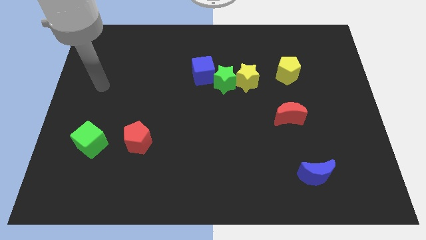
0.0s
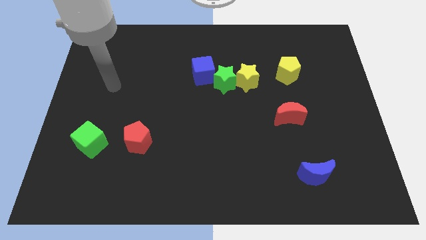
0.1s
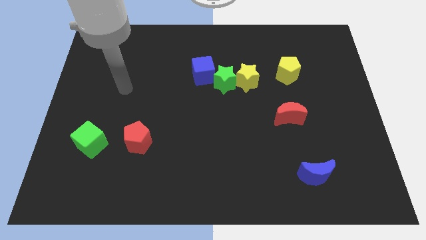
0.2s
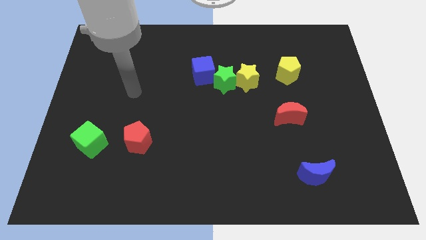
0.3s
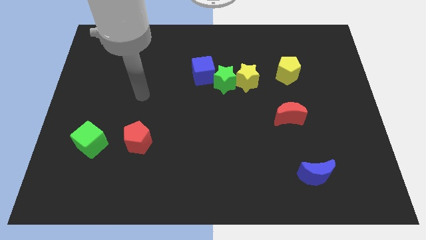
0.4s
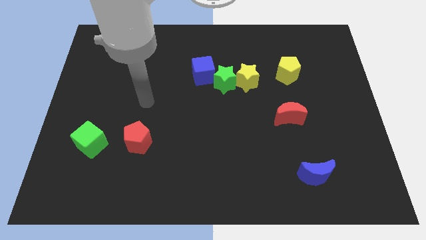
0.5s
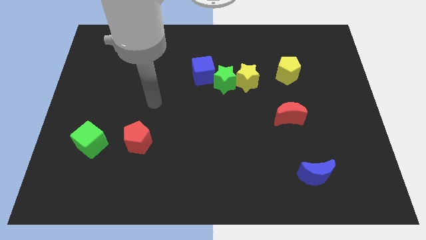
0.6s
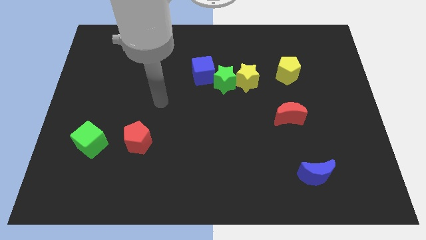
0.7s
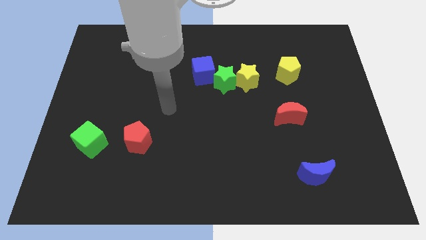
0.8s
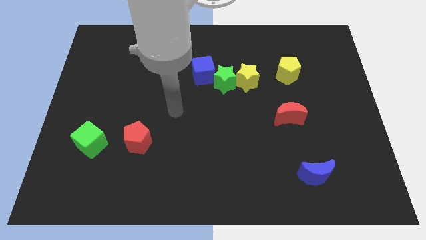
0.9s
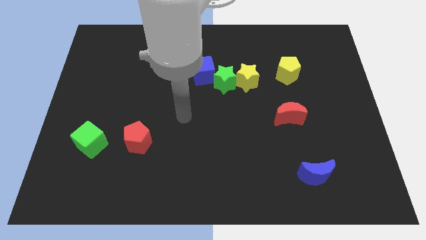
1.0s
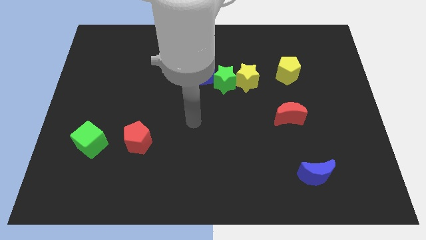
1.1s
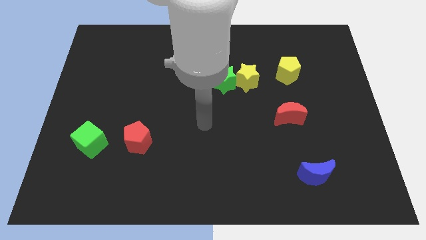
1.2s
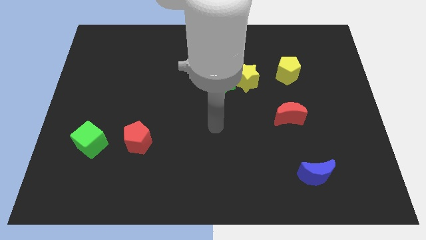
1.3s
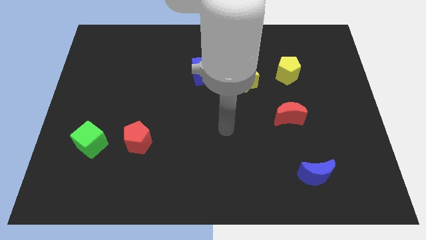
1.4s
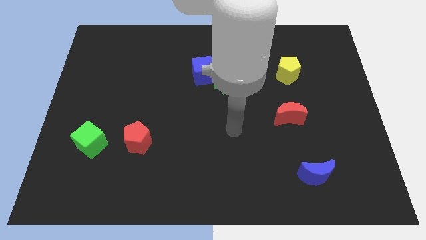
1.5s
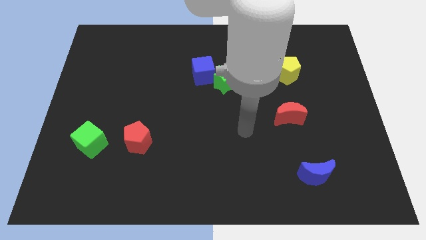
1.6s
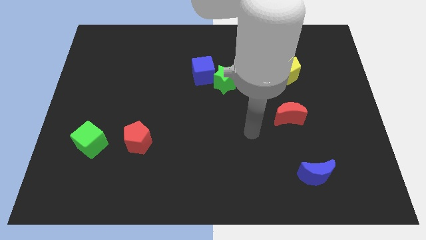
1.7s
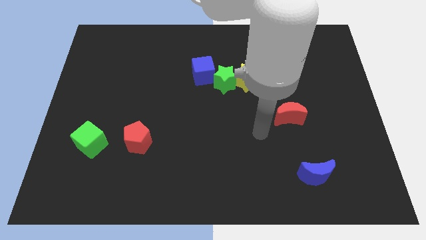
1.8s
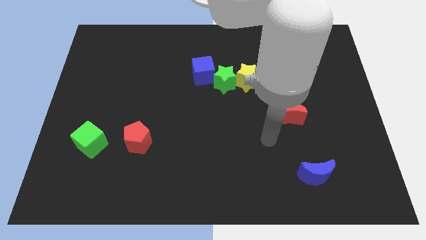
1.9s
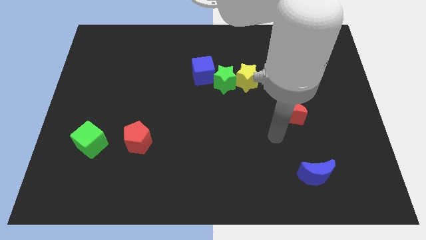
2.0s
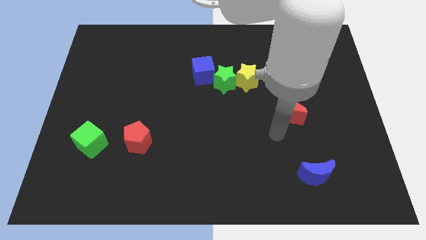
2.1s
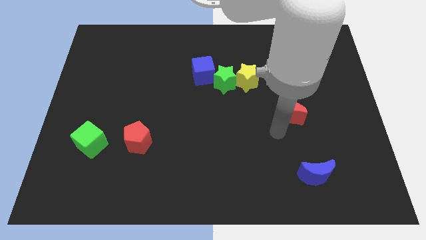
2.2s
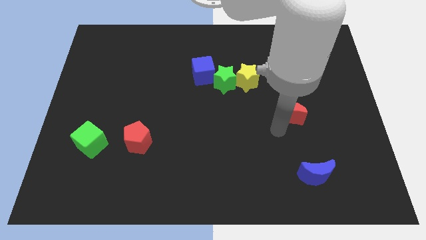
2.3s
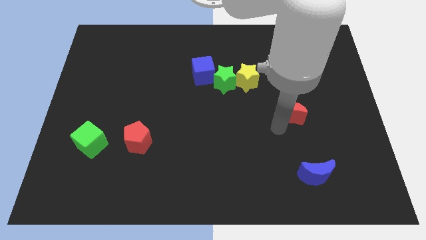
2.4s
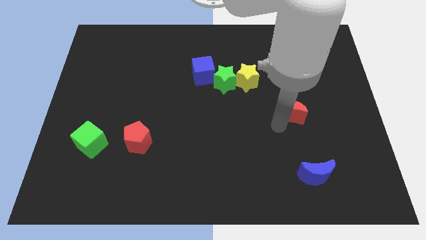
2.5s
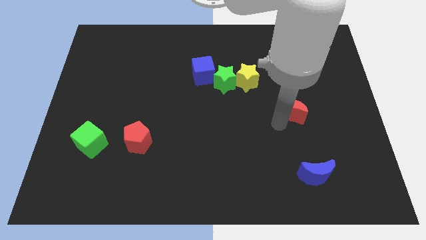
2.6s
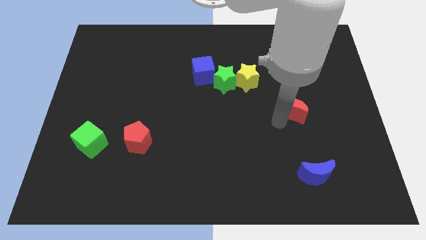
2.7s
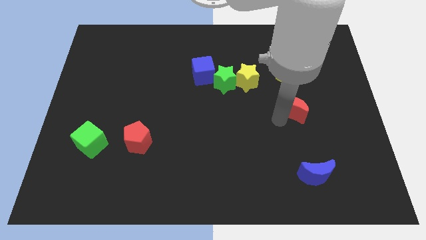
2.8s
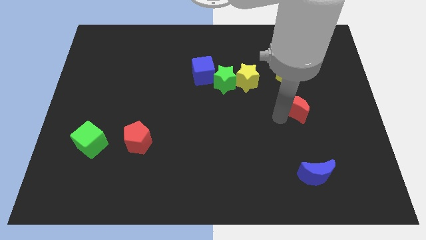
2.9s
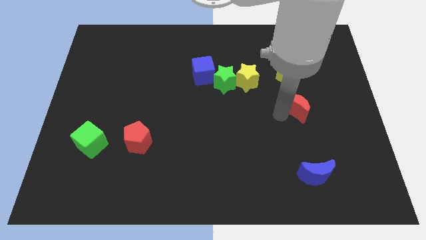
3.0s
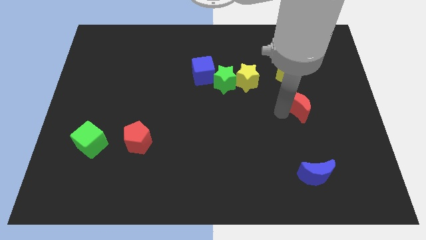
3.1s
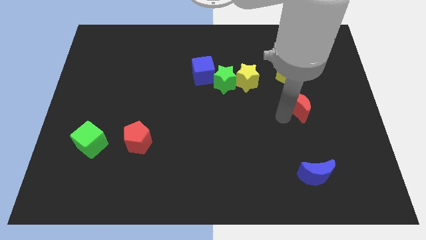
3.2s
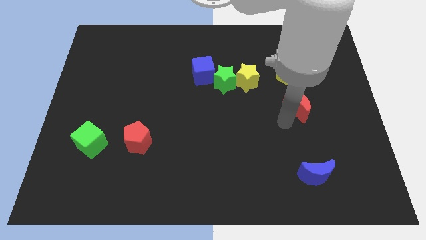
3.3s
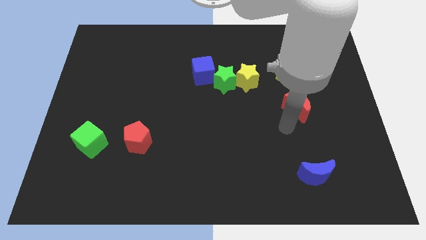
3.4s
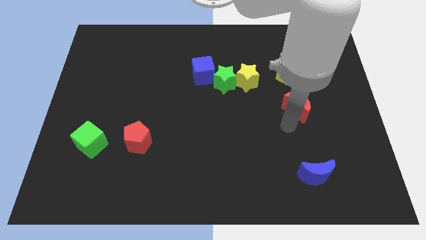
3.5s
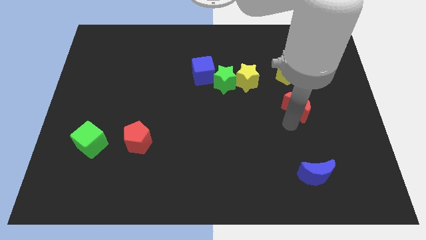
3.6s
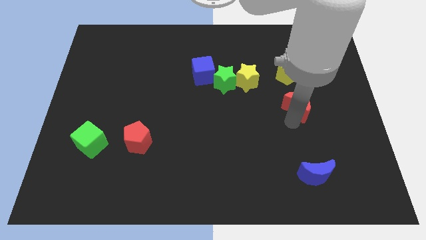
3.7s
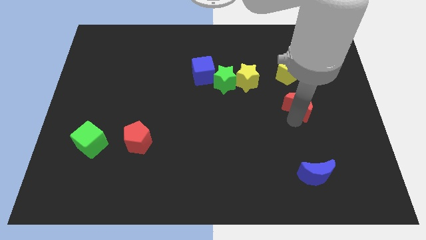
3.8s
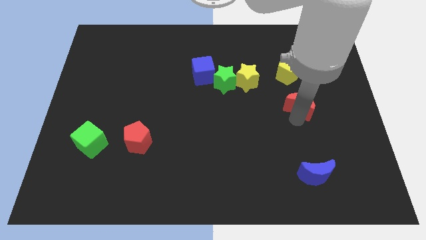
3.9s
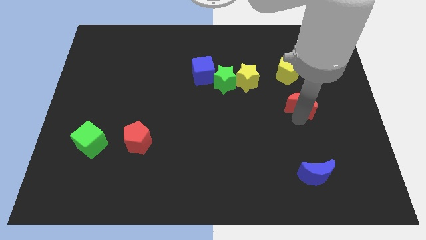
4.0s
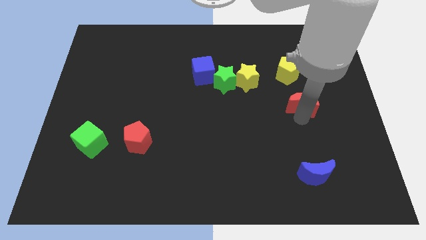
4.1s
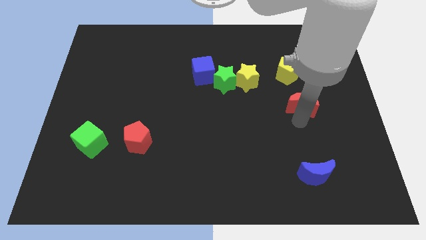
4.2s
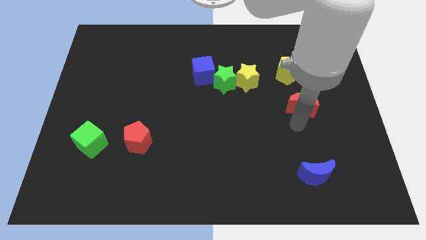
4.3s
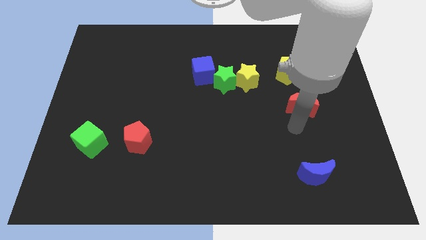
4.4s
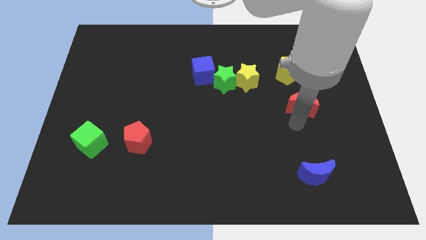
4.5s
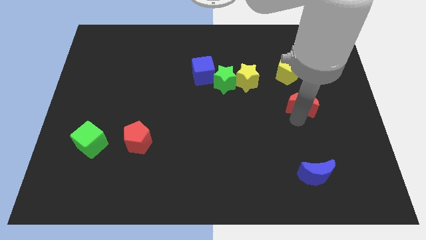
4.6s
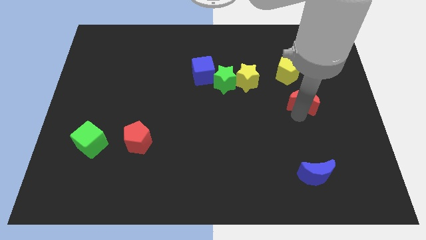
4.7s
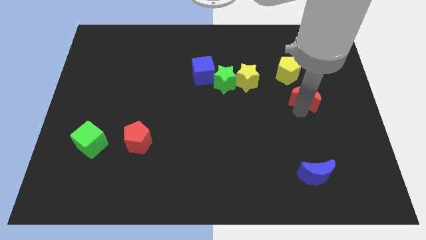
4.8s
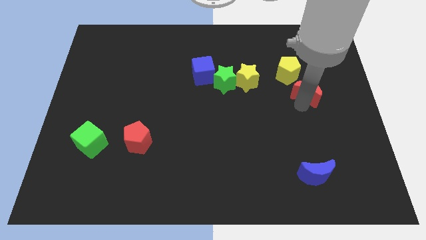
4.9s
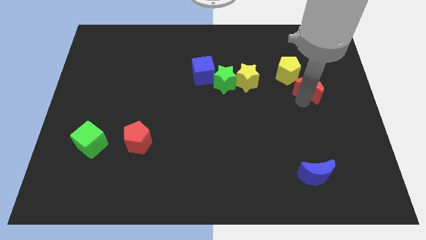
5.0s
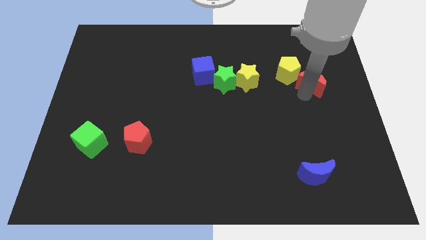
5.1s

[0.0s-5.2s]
slide the red moon to the right of the yellow pentagon

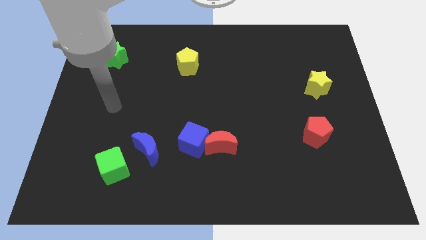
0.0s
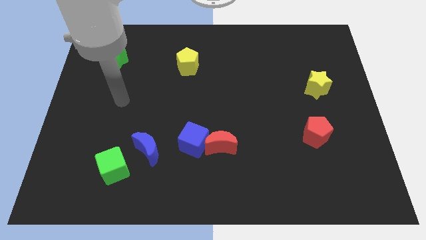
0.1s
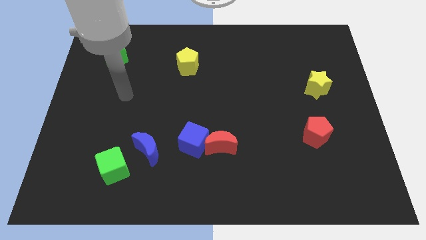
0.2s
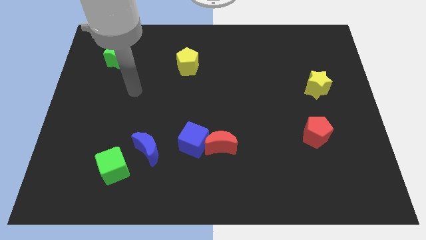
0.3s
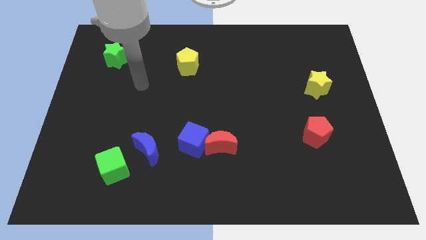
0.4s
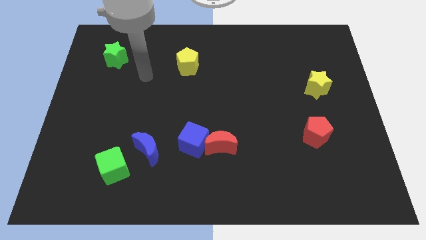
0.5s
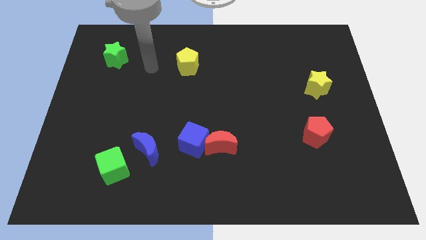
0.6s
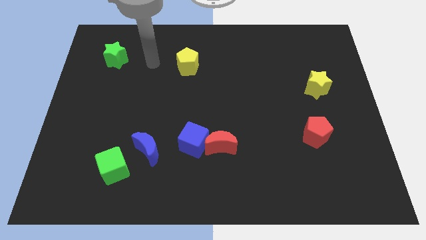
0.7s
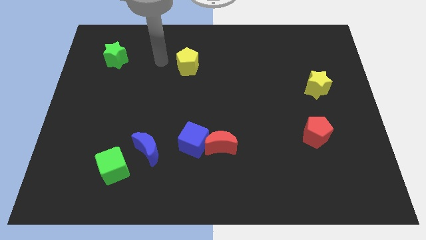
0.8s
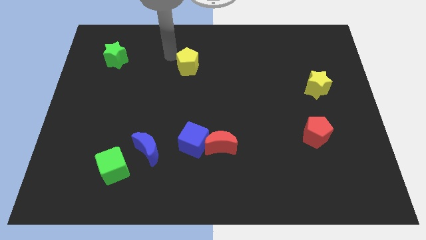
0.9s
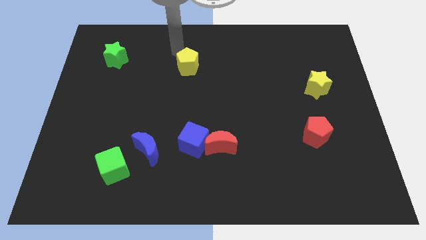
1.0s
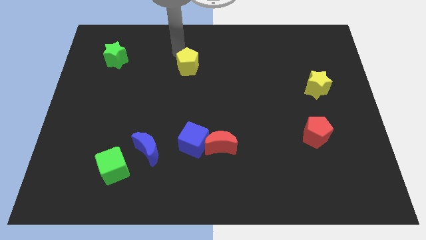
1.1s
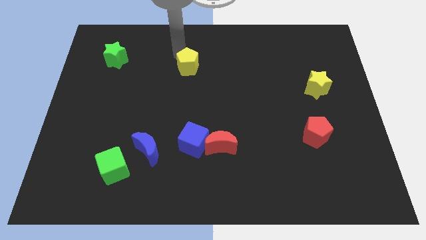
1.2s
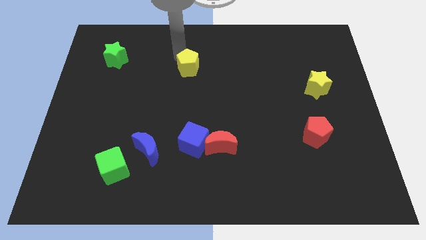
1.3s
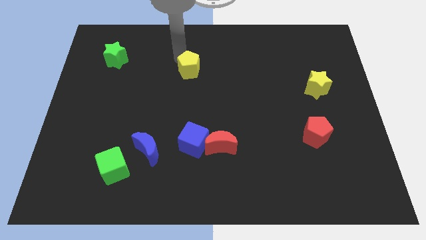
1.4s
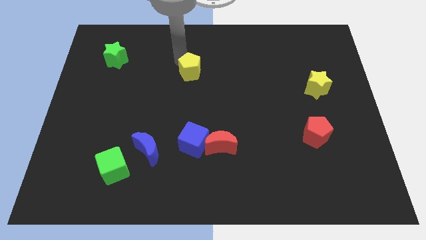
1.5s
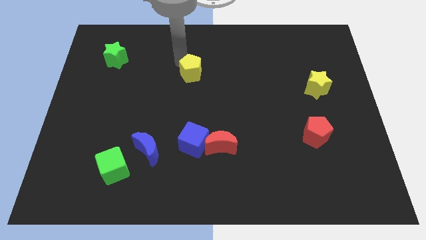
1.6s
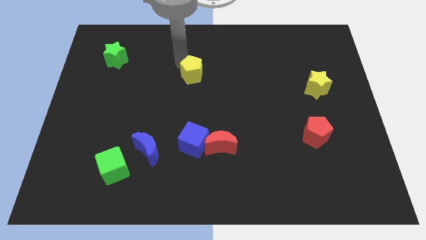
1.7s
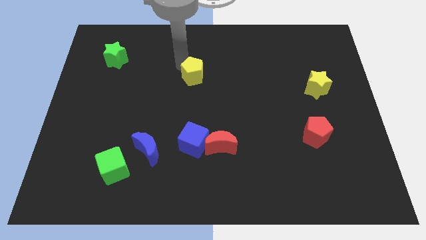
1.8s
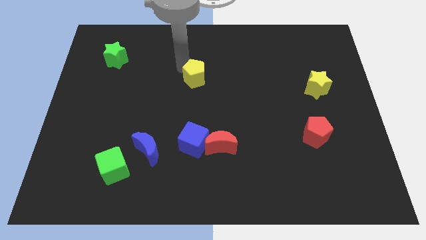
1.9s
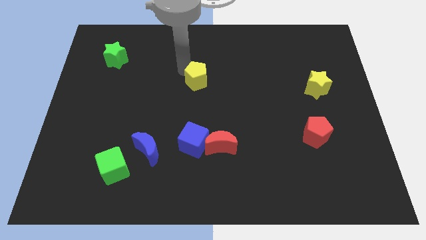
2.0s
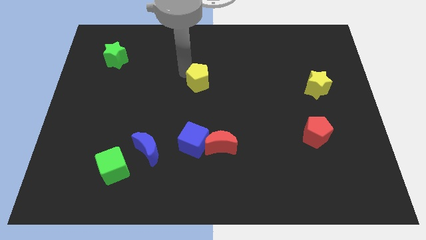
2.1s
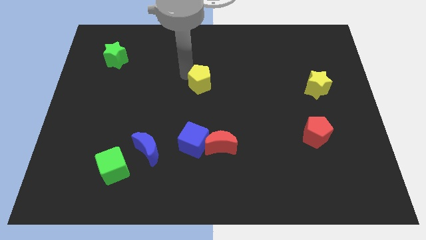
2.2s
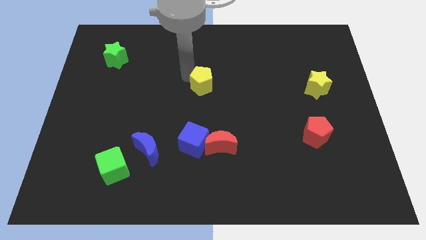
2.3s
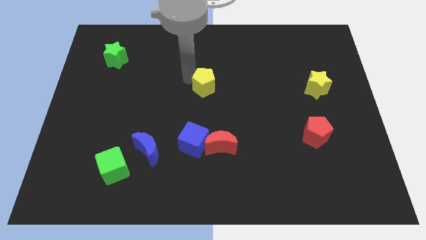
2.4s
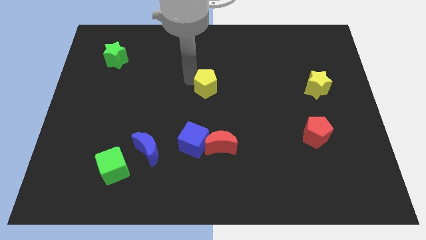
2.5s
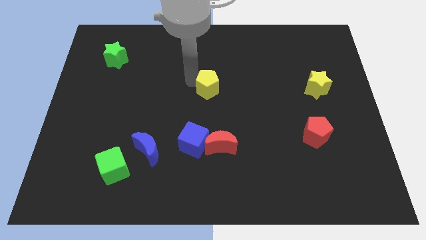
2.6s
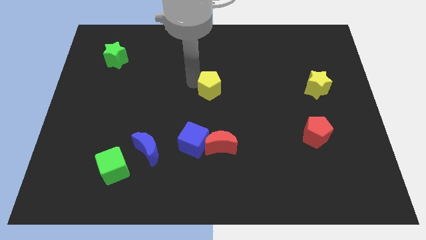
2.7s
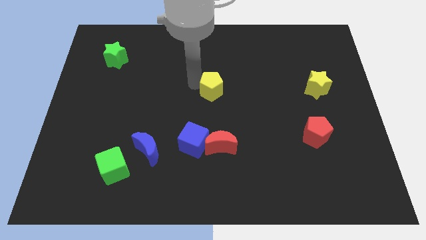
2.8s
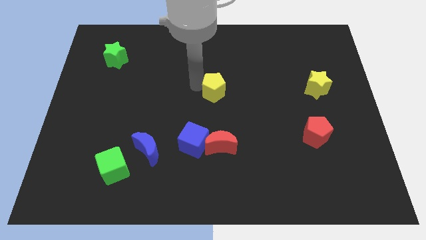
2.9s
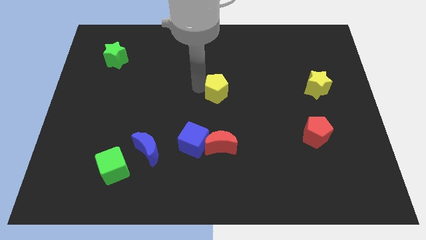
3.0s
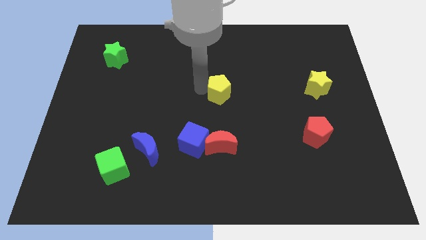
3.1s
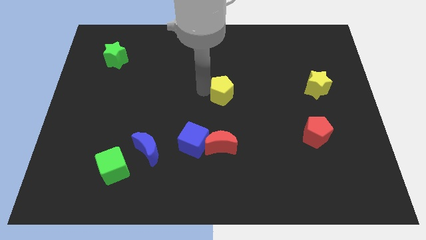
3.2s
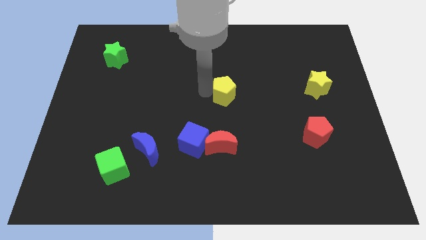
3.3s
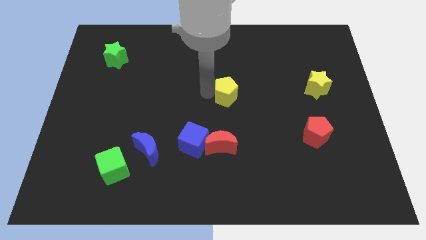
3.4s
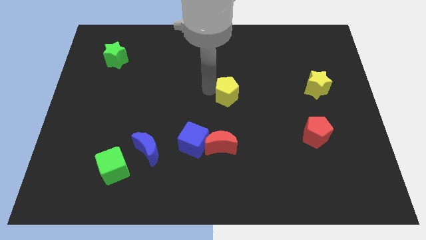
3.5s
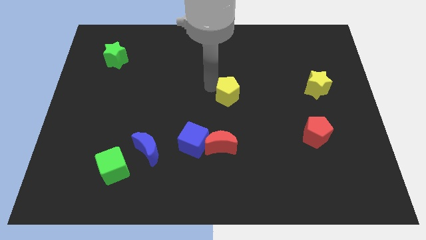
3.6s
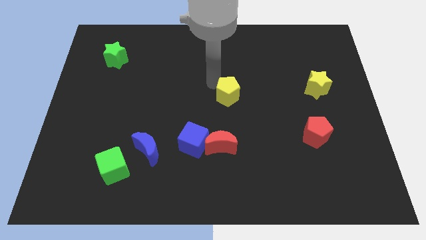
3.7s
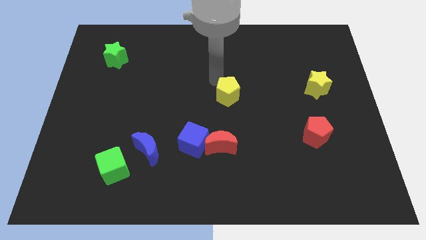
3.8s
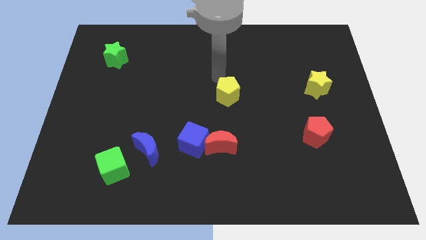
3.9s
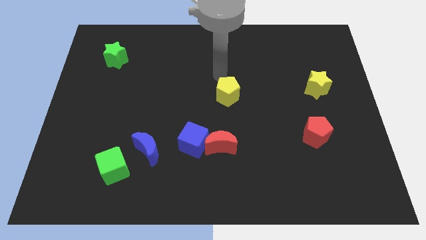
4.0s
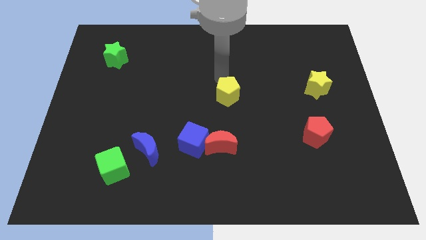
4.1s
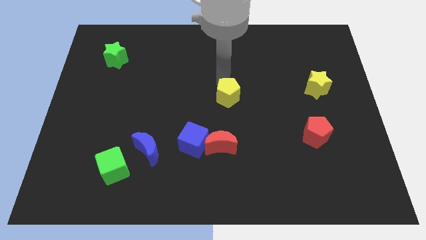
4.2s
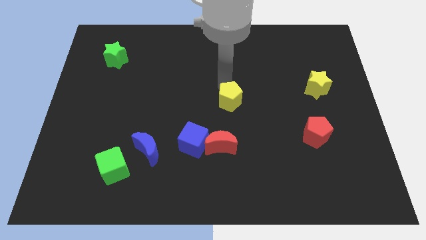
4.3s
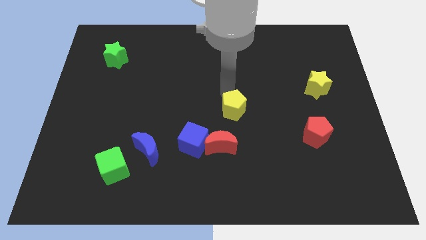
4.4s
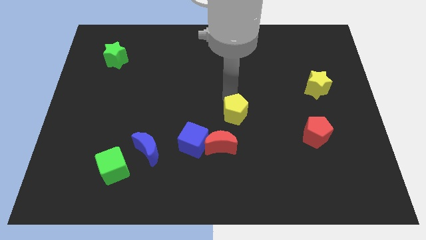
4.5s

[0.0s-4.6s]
put the yellow pentagon to the top right side of the red moon
